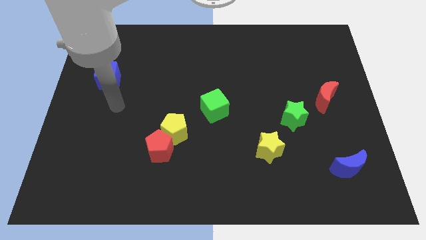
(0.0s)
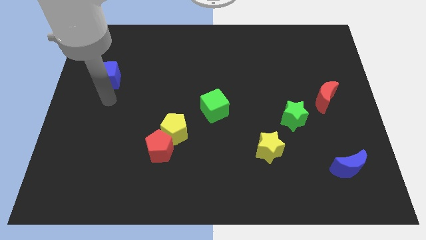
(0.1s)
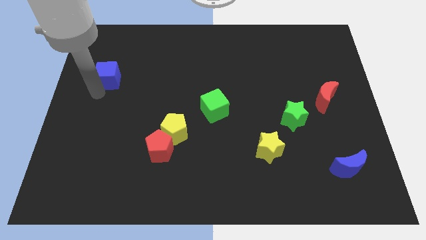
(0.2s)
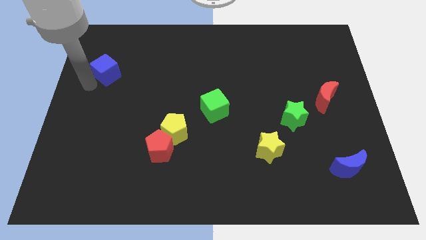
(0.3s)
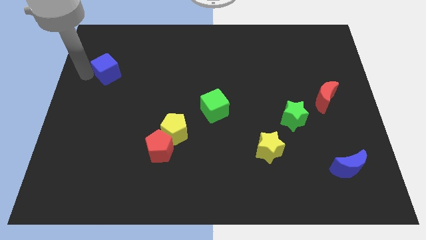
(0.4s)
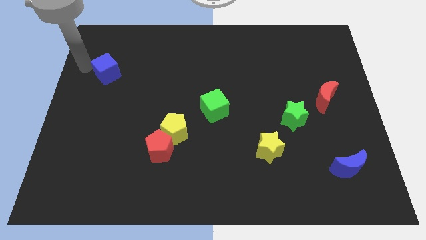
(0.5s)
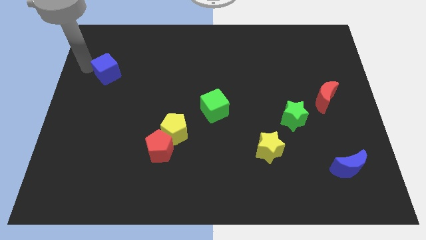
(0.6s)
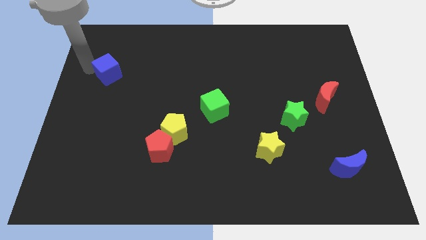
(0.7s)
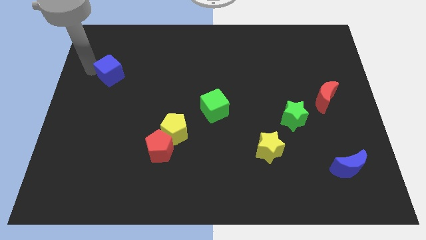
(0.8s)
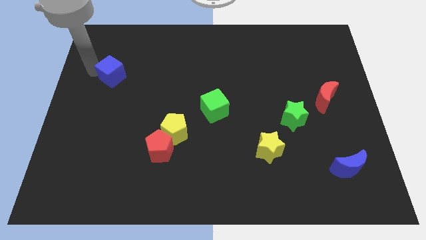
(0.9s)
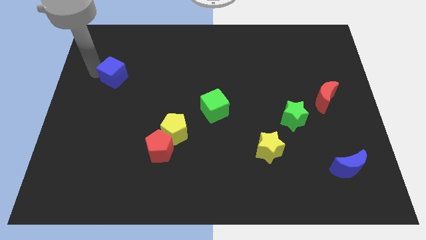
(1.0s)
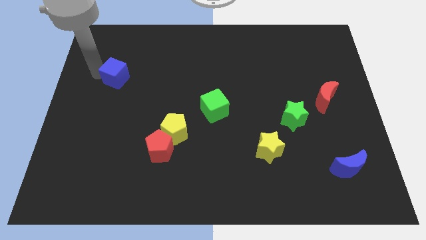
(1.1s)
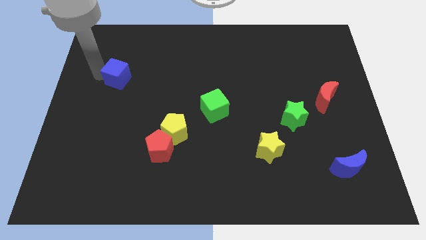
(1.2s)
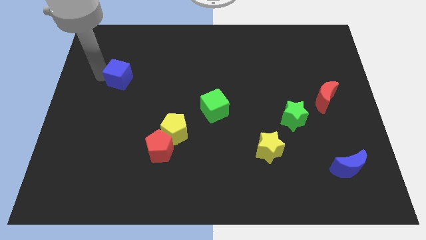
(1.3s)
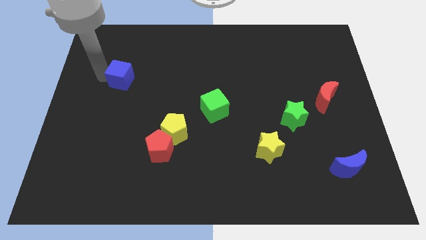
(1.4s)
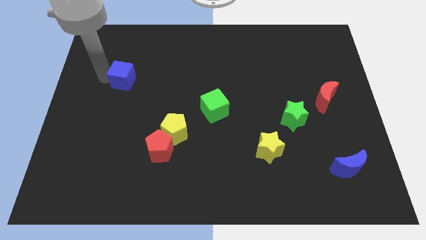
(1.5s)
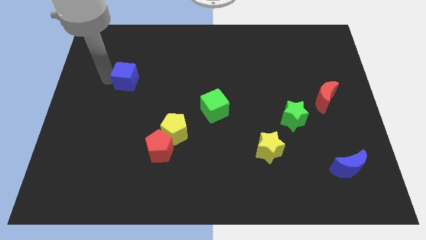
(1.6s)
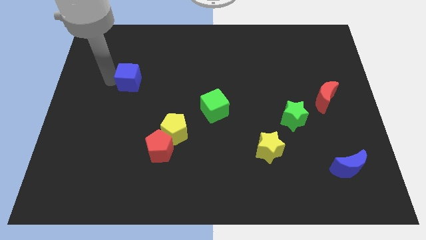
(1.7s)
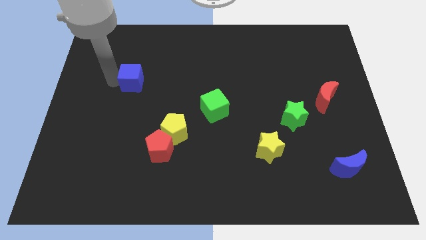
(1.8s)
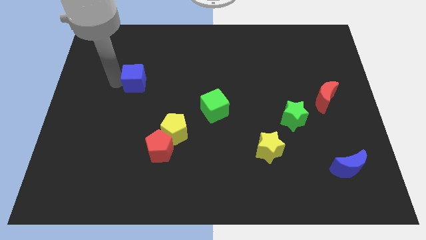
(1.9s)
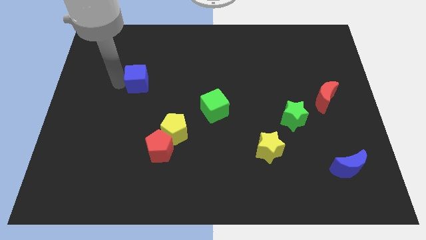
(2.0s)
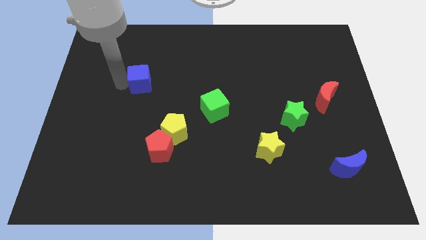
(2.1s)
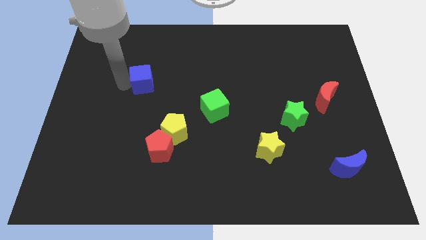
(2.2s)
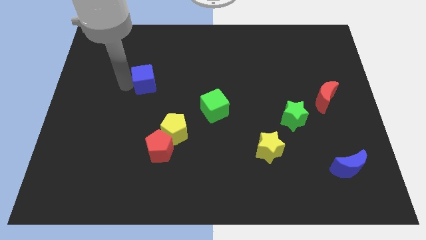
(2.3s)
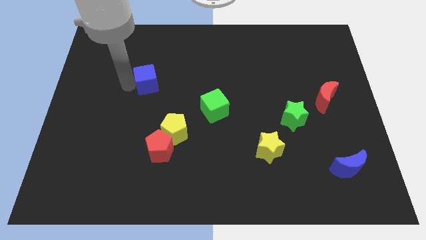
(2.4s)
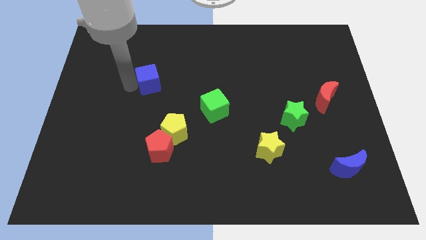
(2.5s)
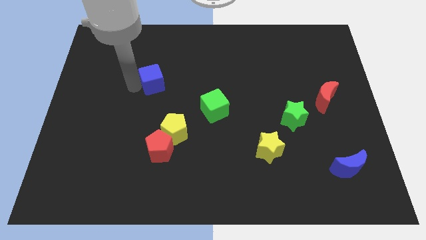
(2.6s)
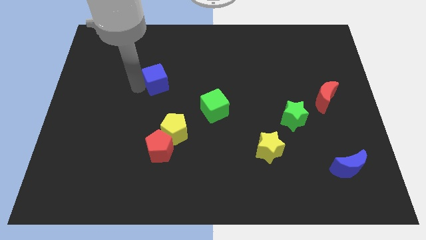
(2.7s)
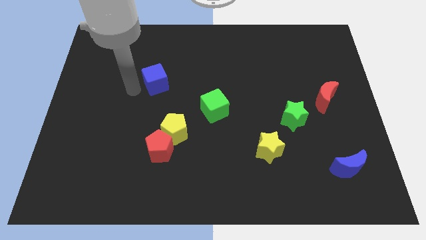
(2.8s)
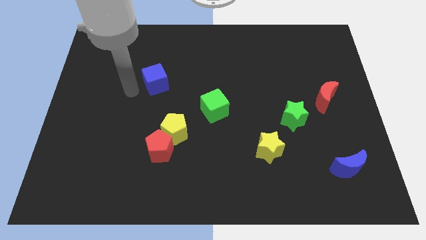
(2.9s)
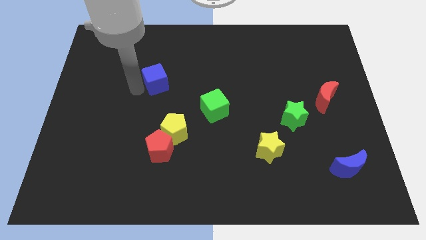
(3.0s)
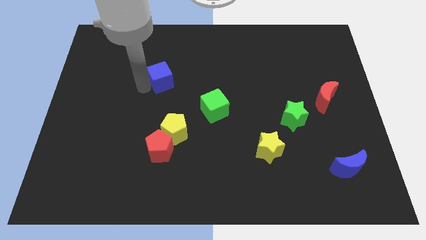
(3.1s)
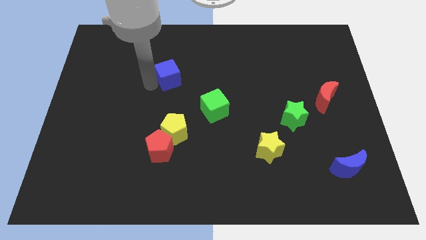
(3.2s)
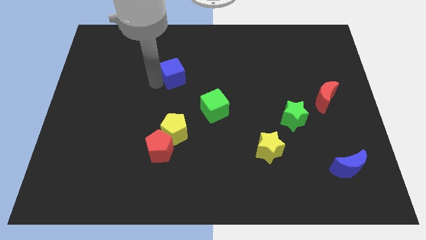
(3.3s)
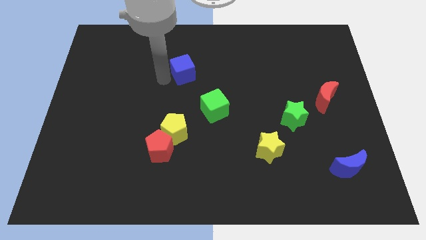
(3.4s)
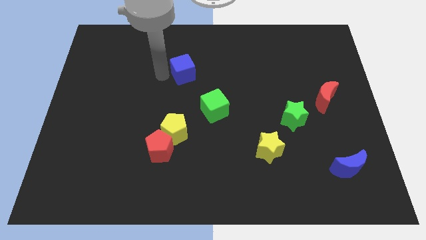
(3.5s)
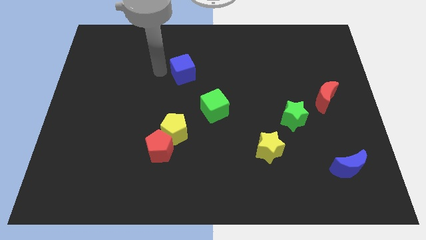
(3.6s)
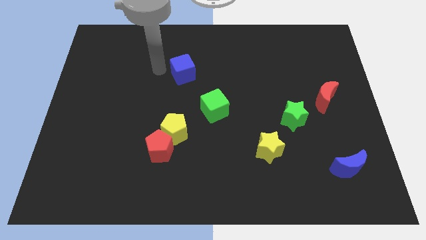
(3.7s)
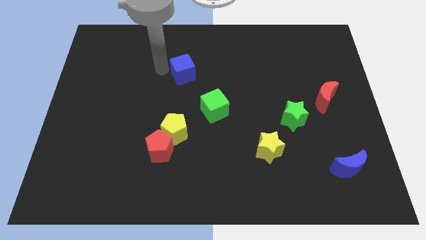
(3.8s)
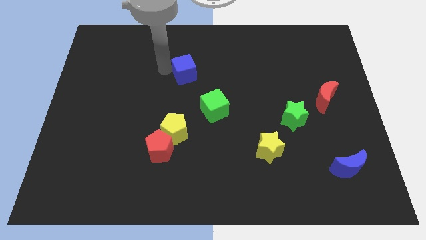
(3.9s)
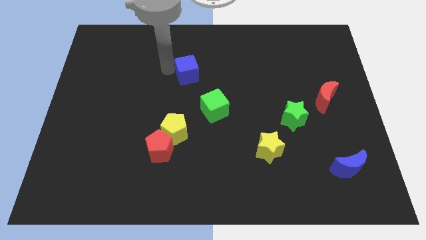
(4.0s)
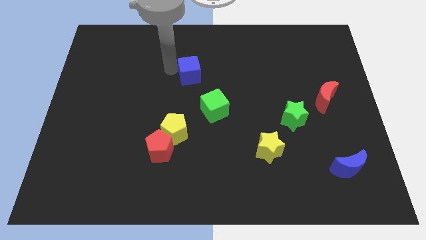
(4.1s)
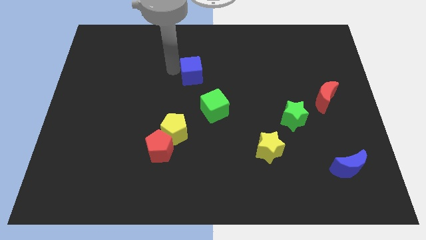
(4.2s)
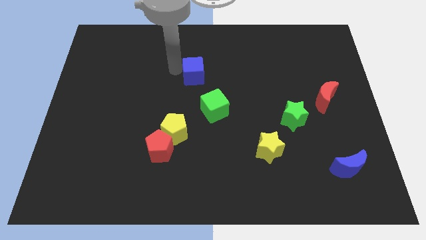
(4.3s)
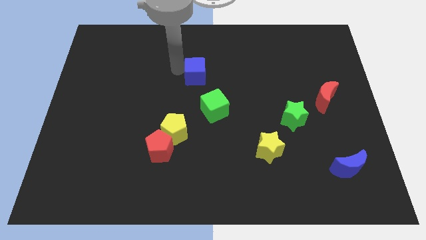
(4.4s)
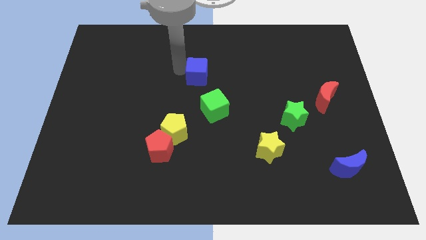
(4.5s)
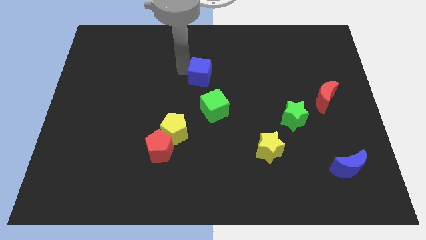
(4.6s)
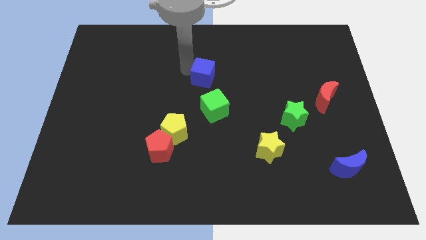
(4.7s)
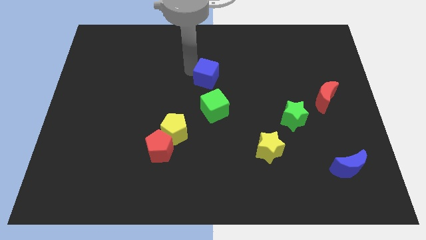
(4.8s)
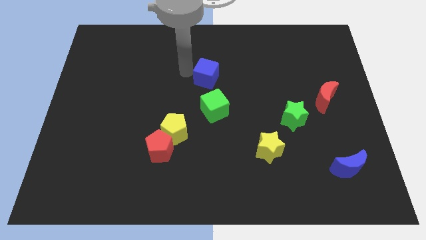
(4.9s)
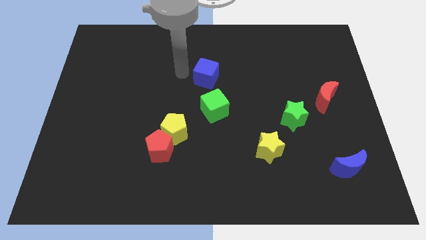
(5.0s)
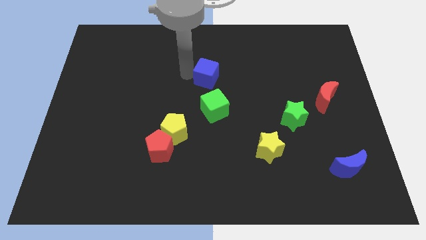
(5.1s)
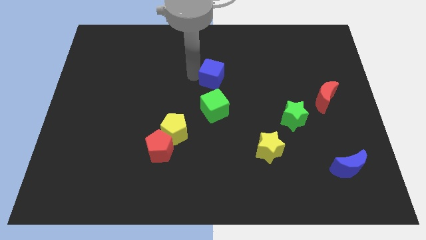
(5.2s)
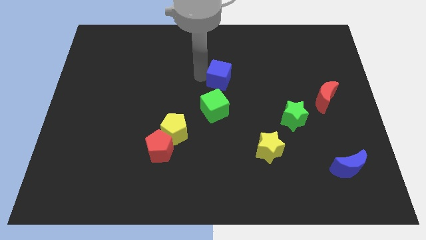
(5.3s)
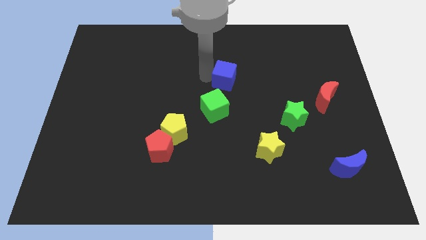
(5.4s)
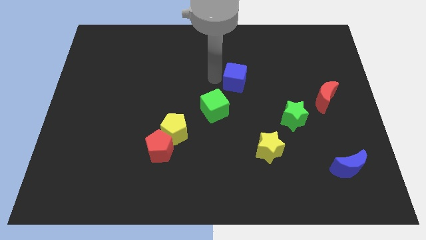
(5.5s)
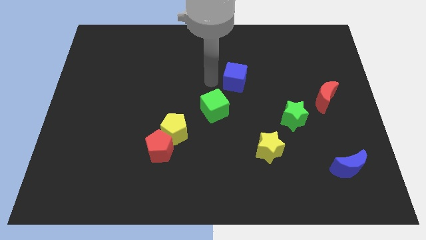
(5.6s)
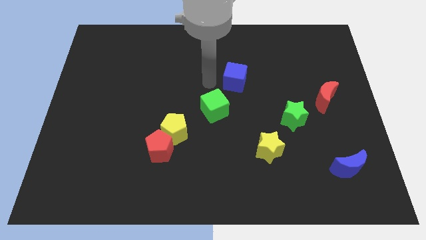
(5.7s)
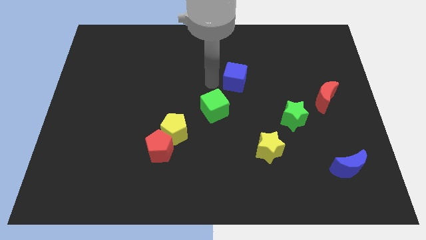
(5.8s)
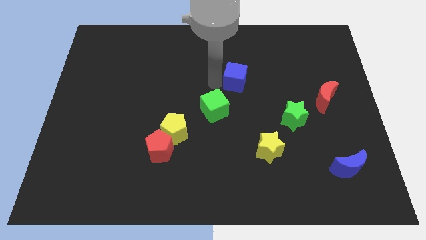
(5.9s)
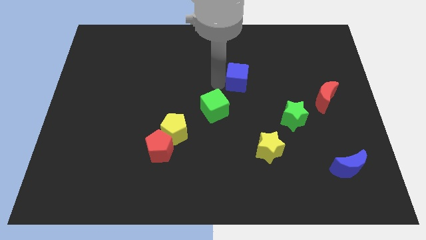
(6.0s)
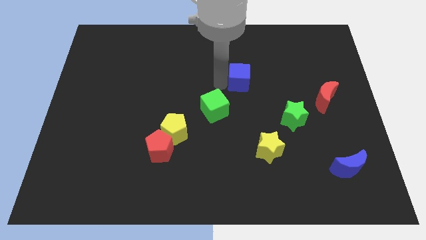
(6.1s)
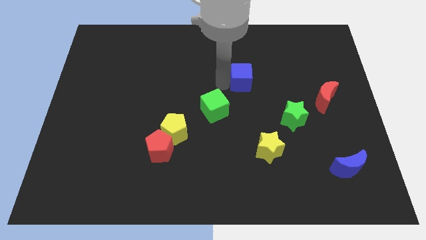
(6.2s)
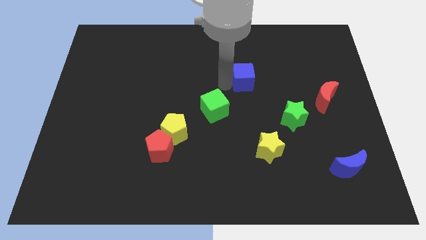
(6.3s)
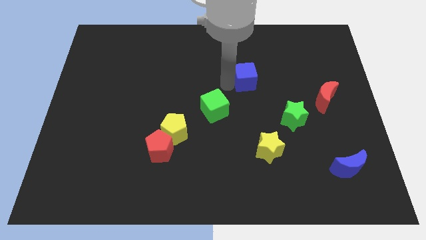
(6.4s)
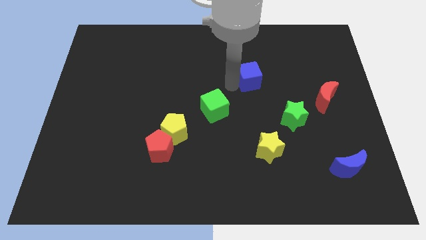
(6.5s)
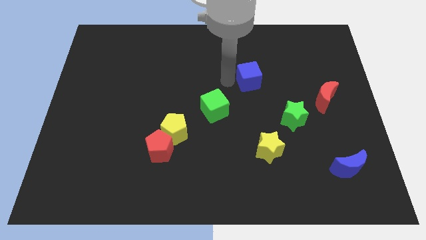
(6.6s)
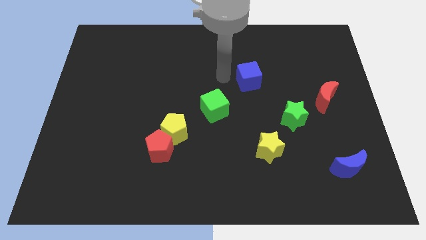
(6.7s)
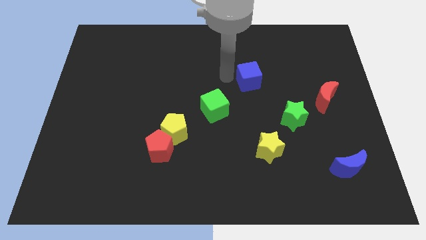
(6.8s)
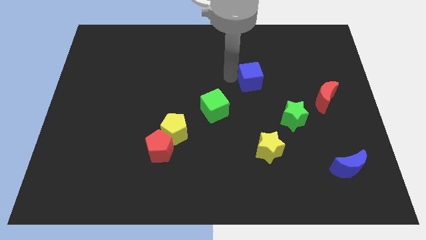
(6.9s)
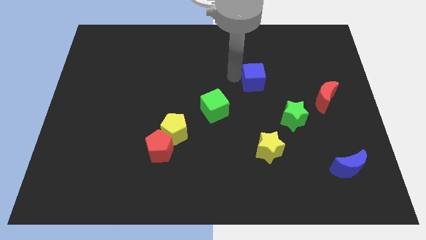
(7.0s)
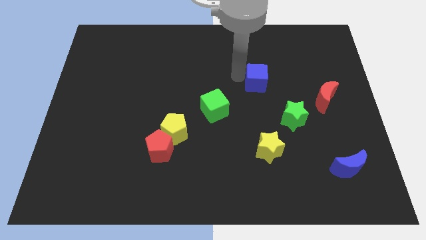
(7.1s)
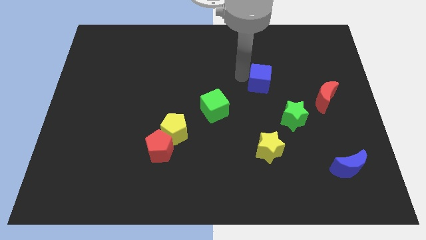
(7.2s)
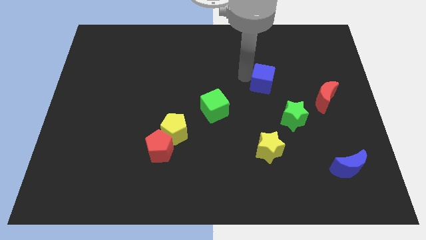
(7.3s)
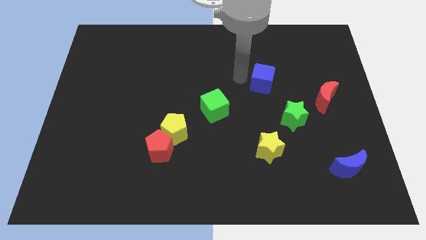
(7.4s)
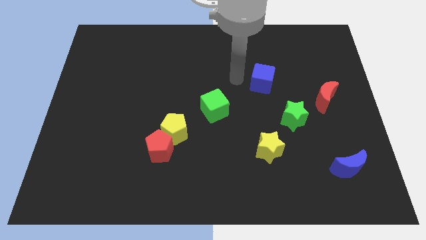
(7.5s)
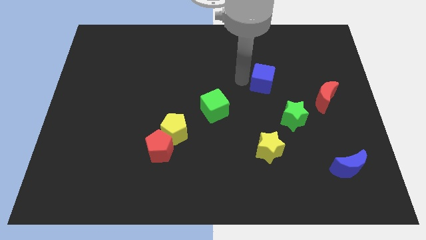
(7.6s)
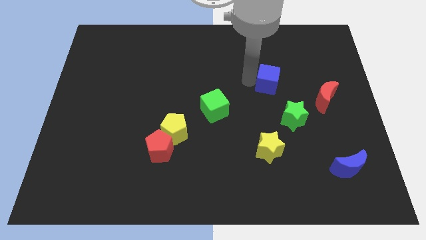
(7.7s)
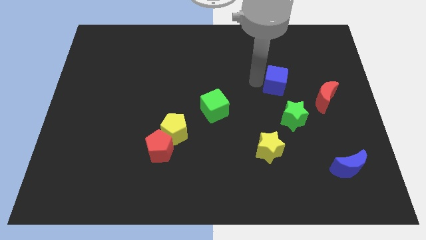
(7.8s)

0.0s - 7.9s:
slide the blue cube to the top side of the green star

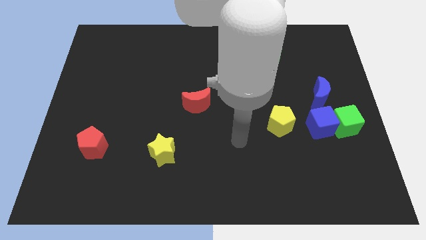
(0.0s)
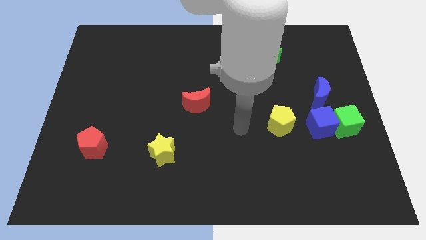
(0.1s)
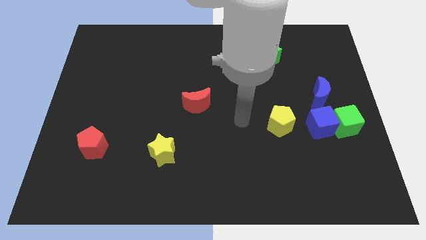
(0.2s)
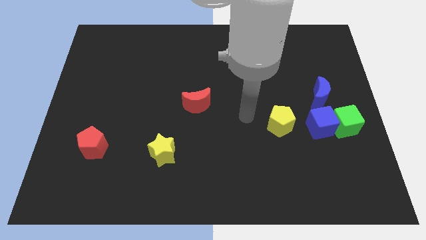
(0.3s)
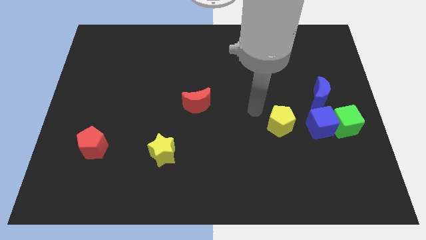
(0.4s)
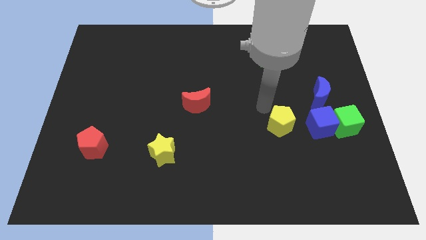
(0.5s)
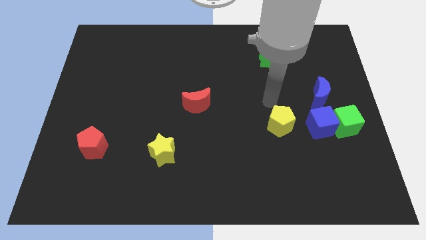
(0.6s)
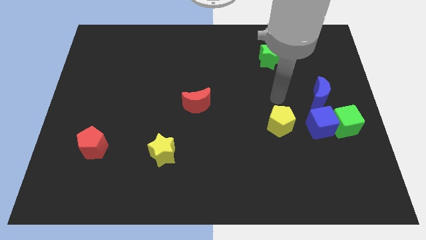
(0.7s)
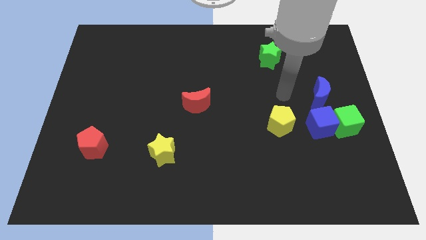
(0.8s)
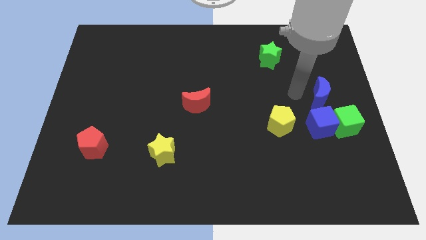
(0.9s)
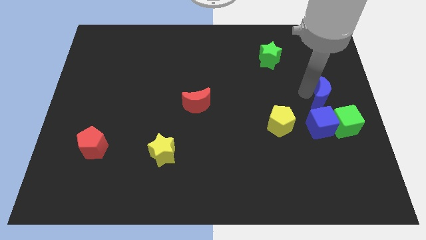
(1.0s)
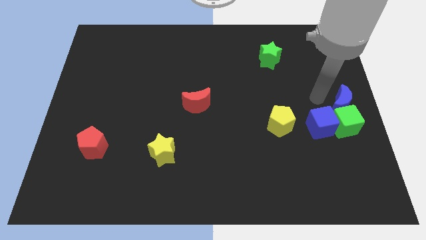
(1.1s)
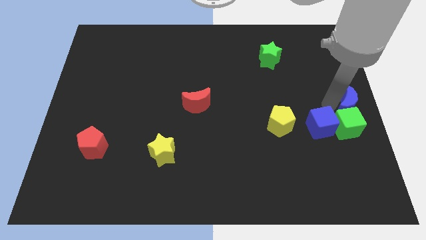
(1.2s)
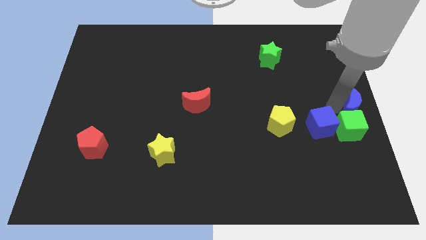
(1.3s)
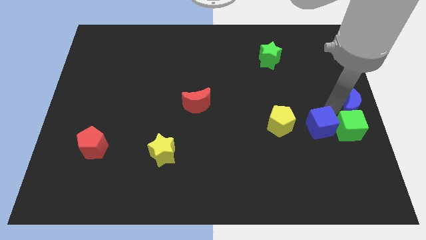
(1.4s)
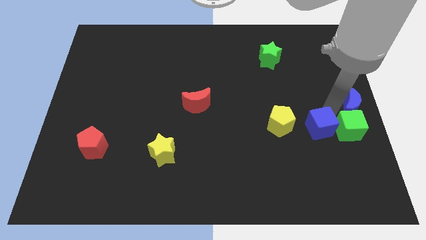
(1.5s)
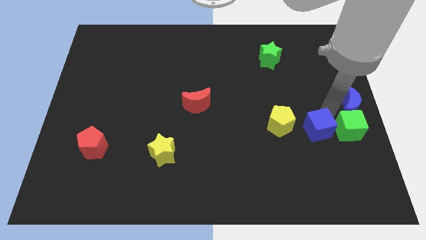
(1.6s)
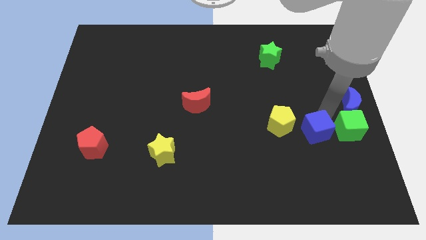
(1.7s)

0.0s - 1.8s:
put the blue cube to the bottom right of the yellow pentagon
